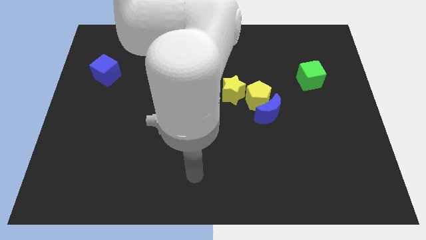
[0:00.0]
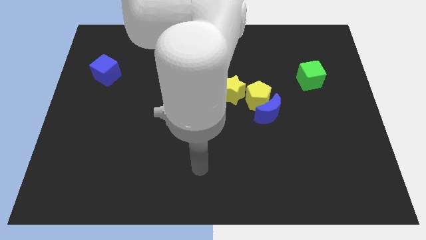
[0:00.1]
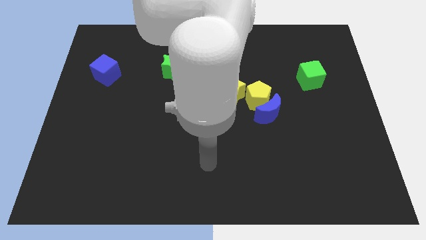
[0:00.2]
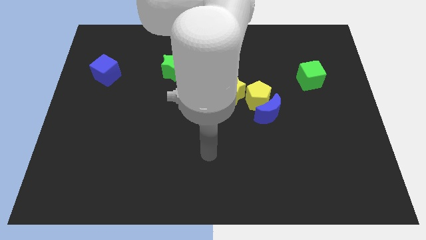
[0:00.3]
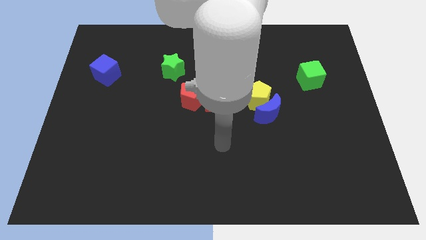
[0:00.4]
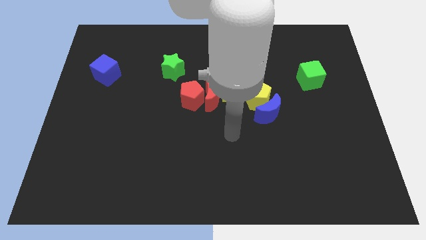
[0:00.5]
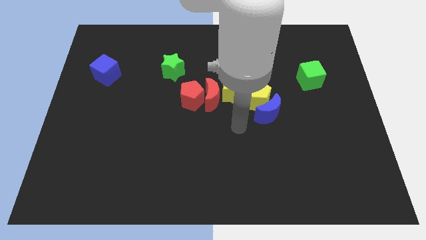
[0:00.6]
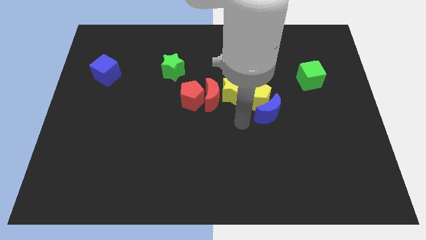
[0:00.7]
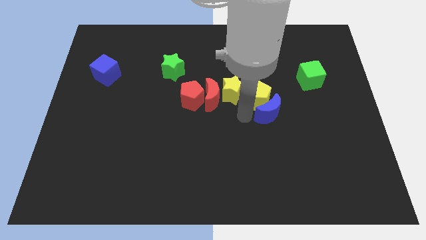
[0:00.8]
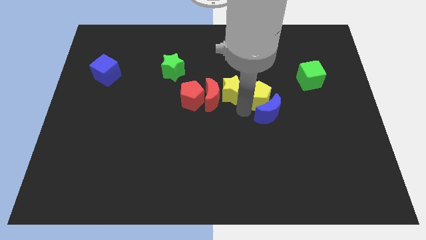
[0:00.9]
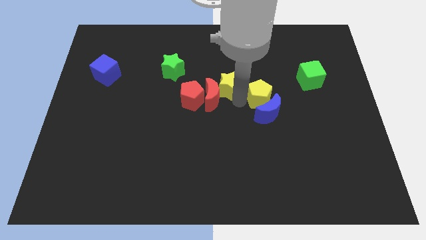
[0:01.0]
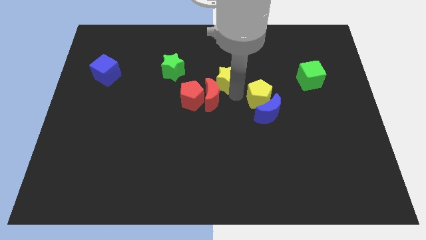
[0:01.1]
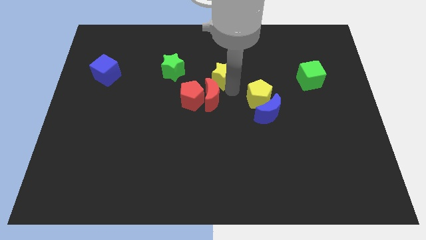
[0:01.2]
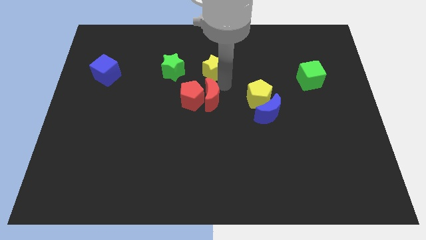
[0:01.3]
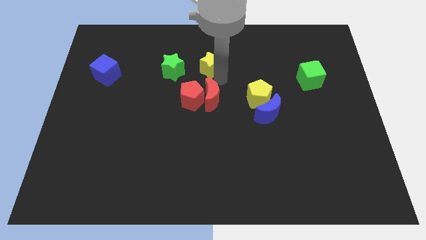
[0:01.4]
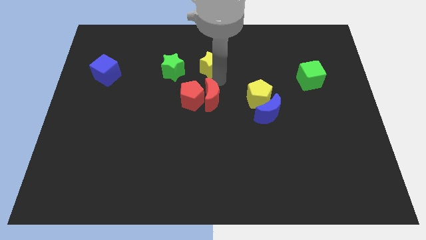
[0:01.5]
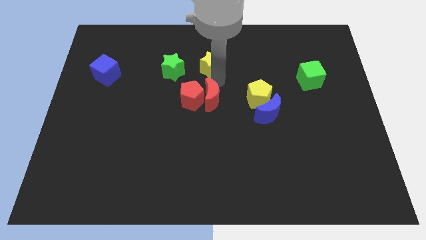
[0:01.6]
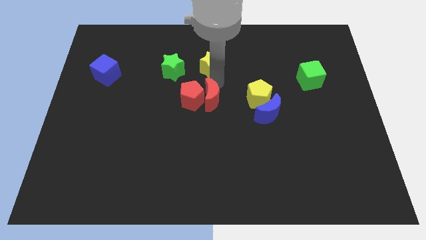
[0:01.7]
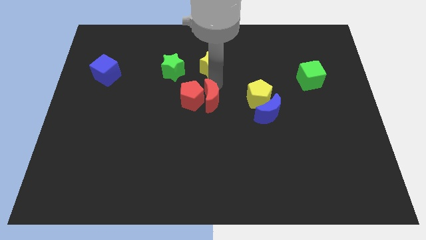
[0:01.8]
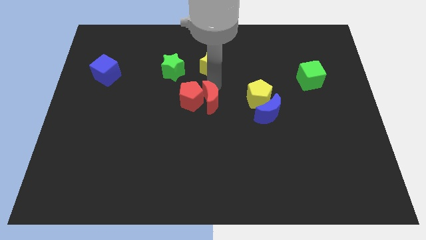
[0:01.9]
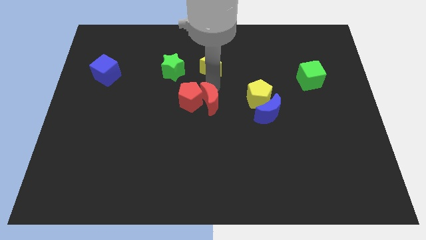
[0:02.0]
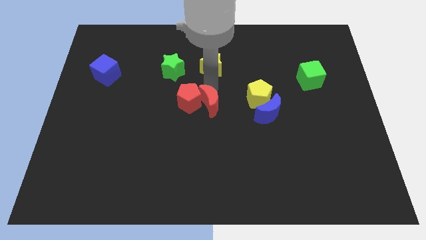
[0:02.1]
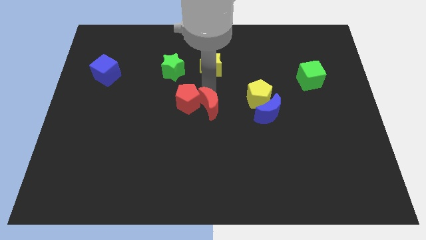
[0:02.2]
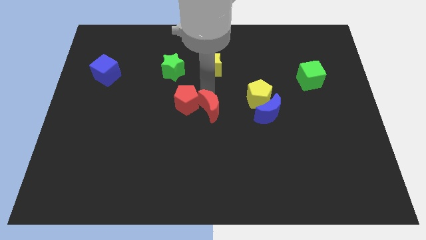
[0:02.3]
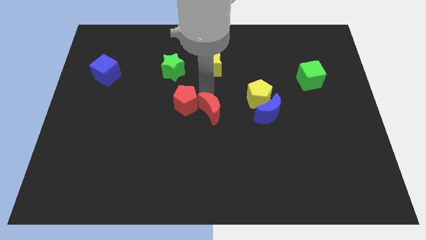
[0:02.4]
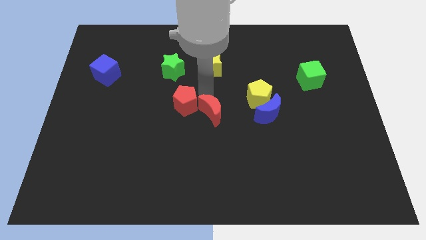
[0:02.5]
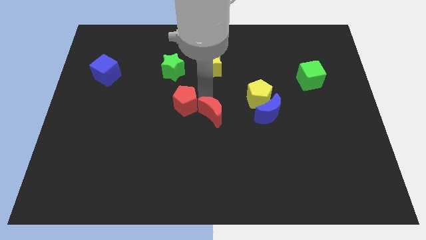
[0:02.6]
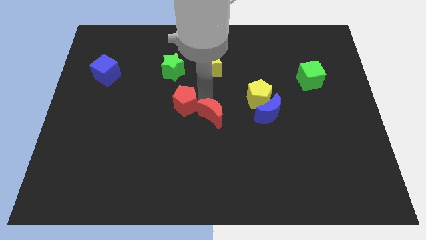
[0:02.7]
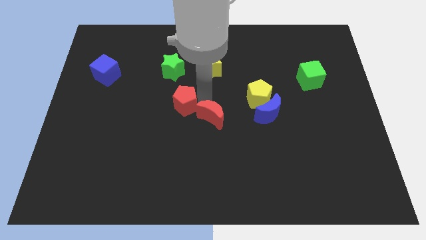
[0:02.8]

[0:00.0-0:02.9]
move the red moon away from the red pentagon and yellow star

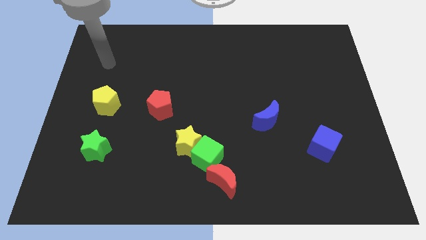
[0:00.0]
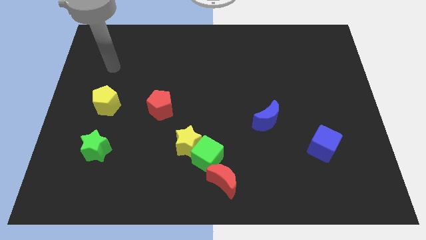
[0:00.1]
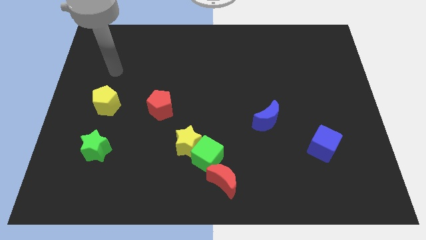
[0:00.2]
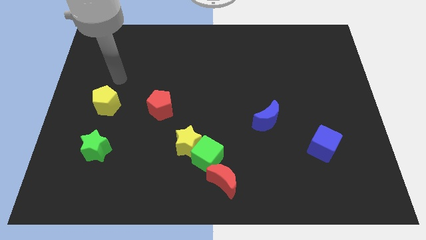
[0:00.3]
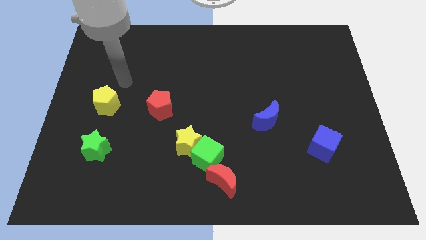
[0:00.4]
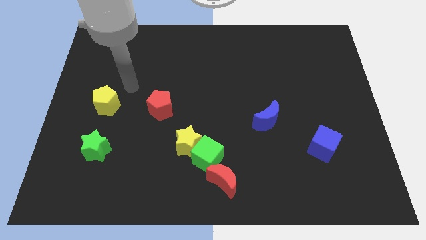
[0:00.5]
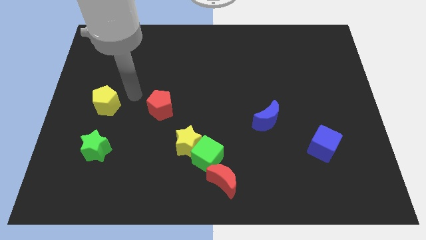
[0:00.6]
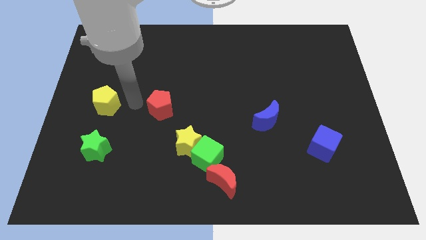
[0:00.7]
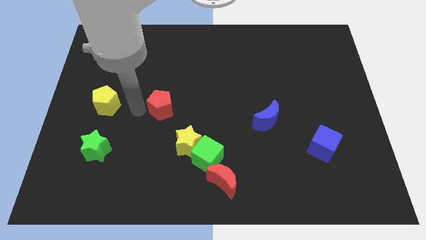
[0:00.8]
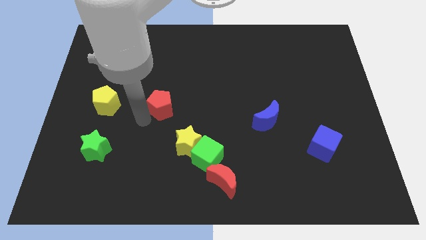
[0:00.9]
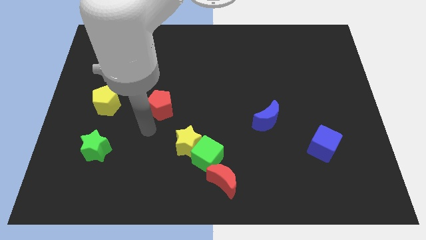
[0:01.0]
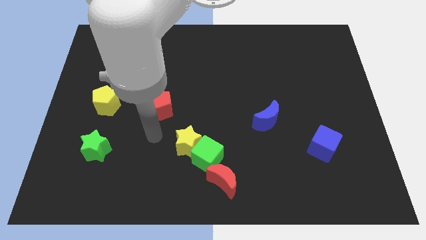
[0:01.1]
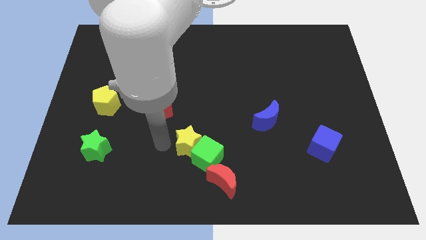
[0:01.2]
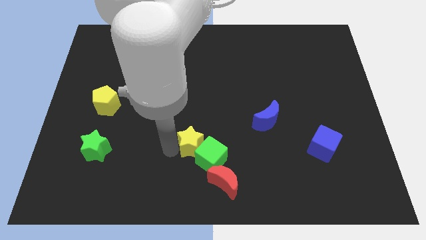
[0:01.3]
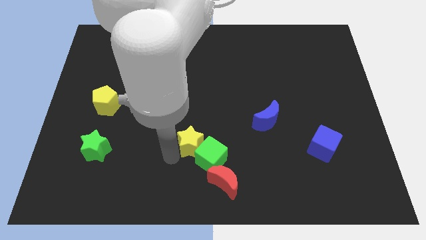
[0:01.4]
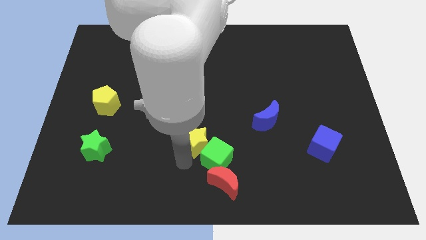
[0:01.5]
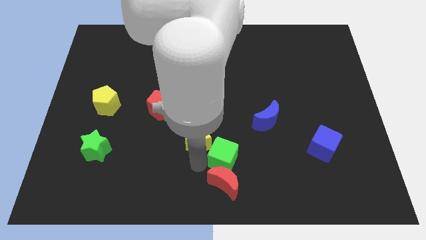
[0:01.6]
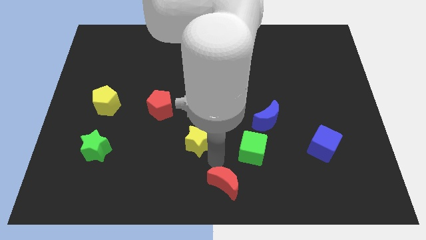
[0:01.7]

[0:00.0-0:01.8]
separate the yellow star from the green cube

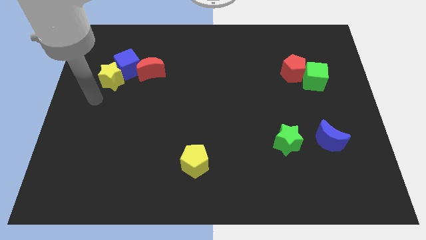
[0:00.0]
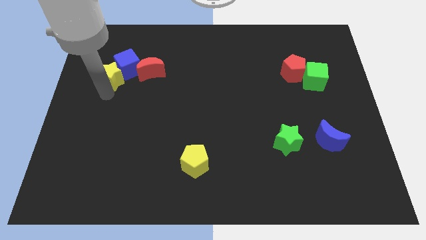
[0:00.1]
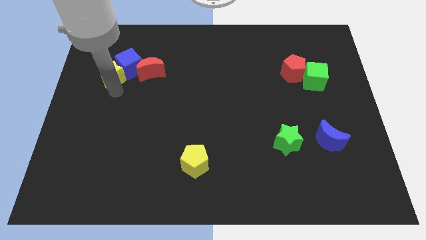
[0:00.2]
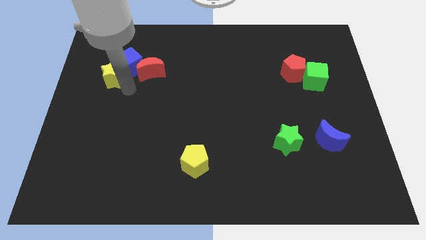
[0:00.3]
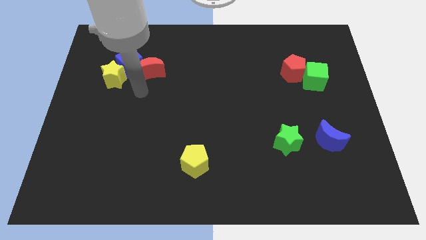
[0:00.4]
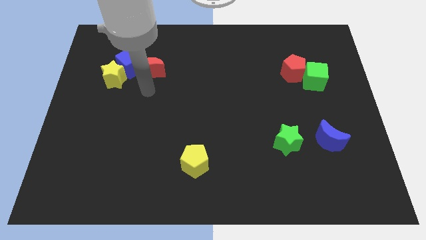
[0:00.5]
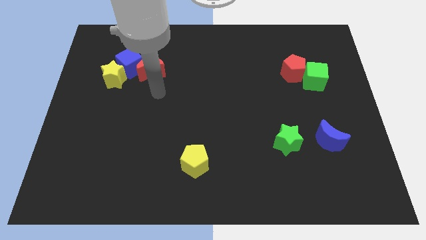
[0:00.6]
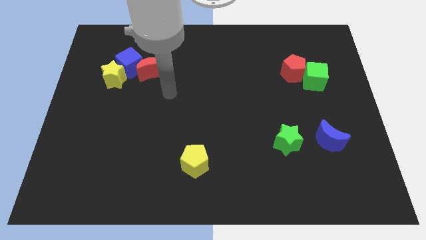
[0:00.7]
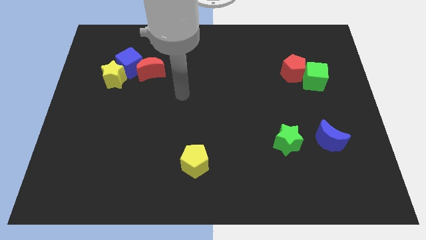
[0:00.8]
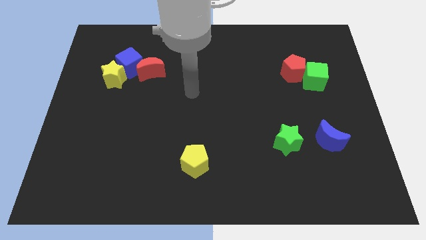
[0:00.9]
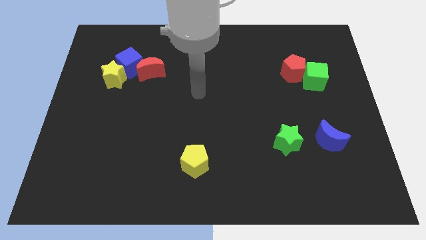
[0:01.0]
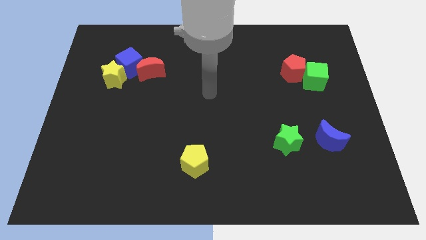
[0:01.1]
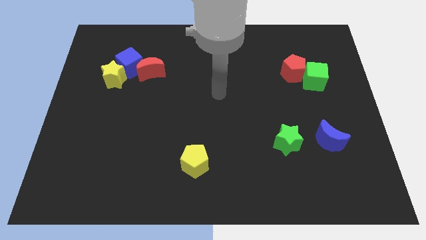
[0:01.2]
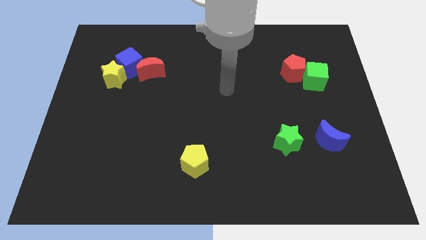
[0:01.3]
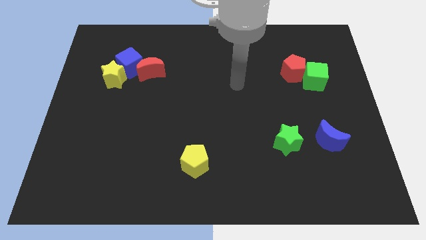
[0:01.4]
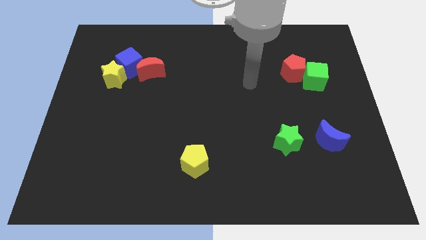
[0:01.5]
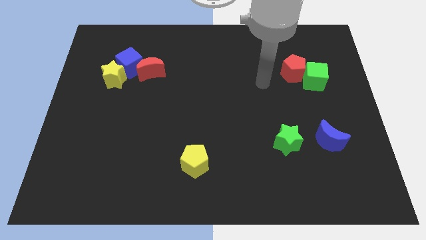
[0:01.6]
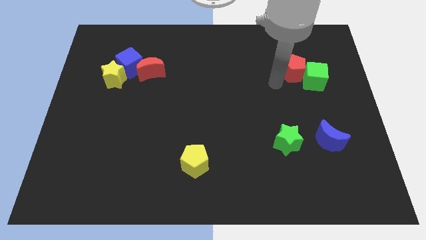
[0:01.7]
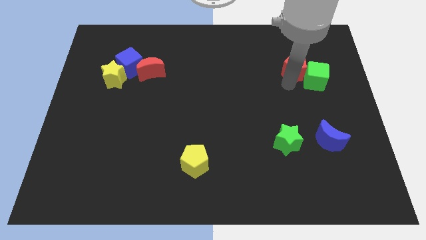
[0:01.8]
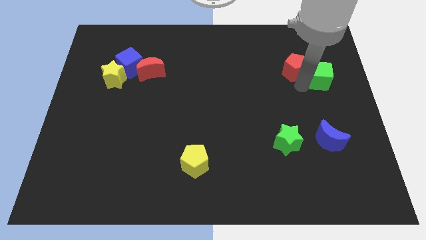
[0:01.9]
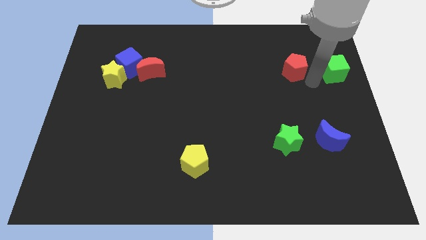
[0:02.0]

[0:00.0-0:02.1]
separate the red pentagon from the green cube

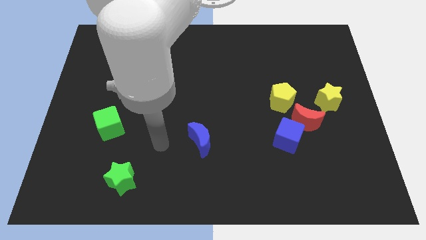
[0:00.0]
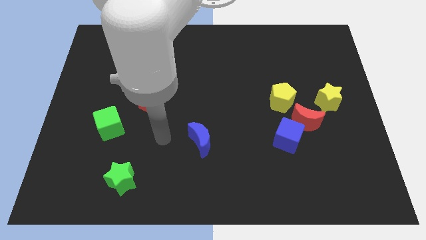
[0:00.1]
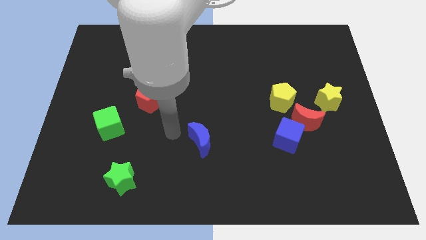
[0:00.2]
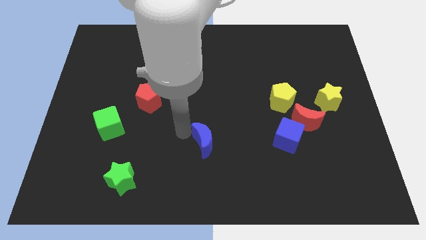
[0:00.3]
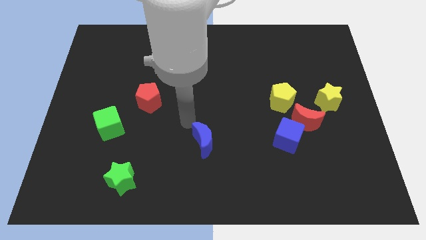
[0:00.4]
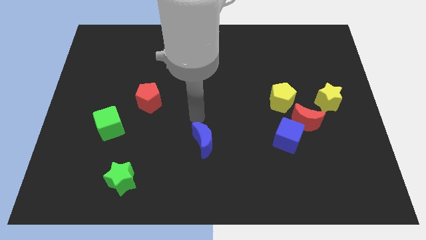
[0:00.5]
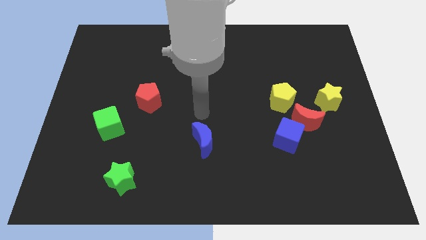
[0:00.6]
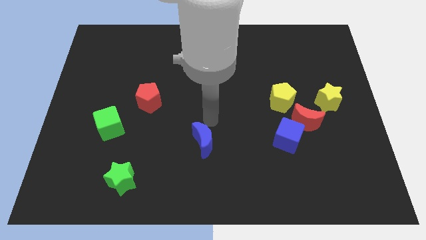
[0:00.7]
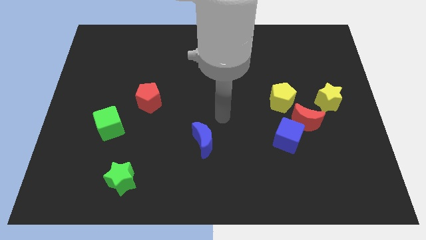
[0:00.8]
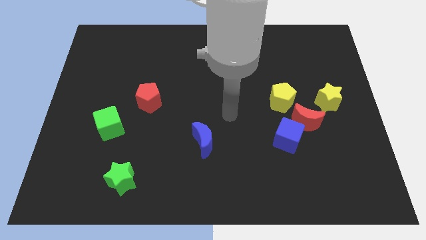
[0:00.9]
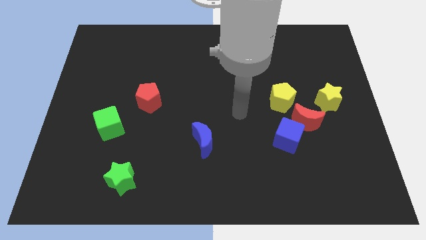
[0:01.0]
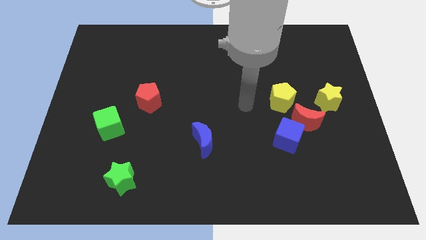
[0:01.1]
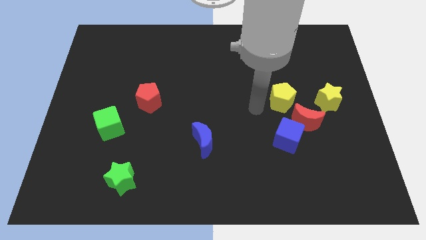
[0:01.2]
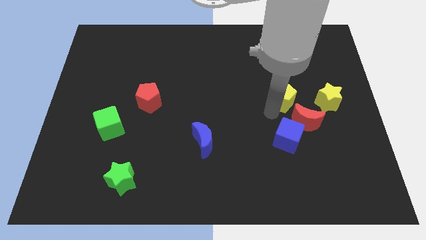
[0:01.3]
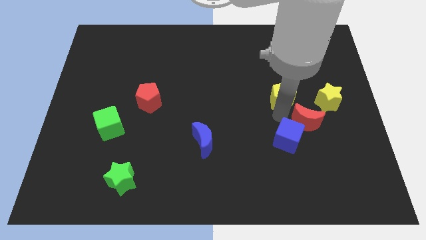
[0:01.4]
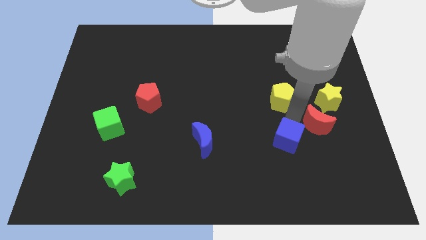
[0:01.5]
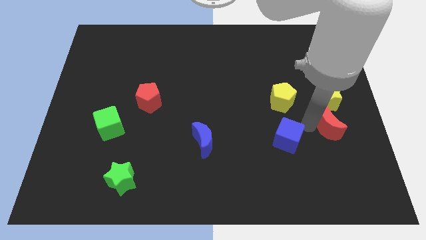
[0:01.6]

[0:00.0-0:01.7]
pull the blue cube apart from the red moon

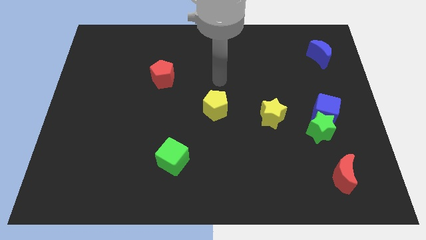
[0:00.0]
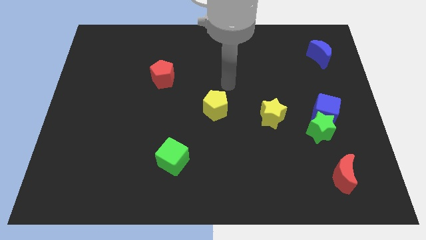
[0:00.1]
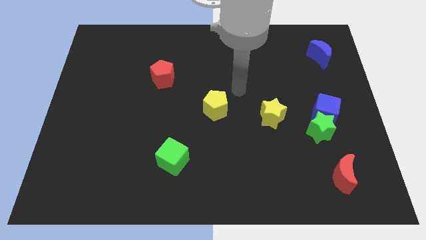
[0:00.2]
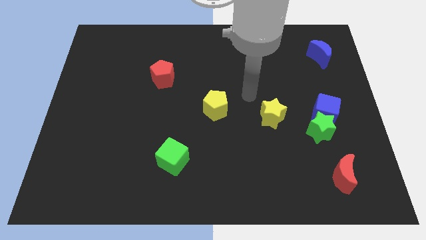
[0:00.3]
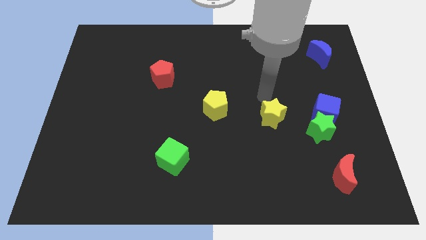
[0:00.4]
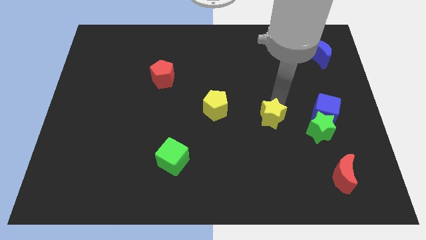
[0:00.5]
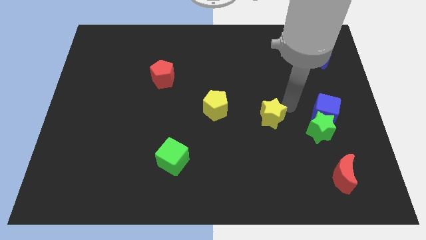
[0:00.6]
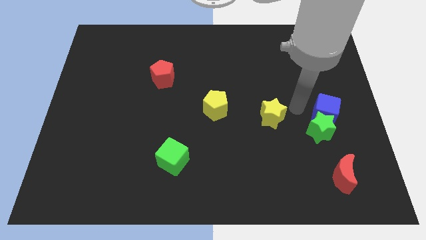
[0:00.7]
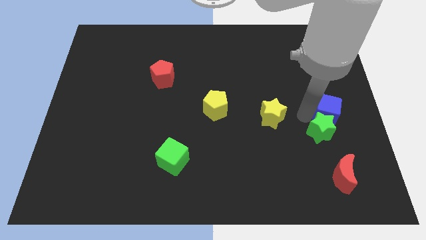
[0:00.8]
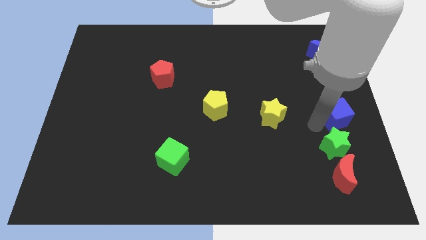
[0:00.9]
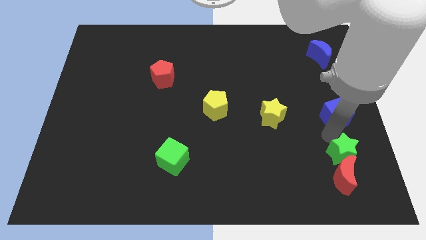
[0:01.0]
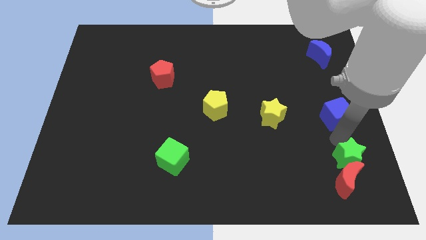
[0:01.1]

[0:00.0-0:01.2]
pull the blue cube apart from the green star
